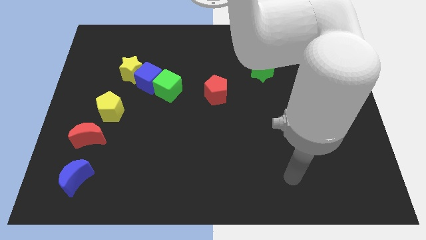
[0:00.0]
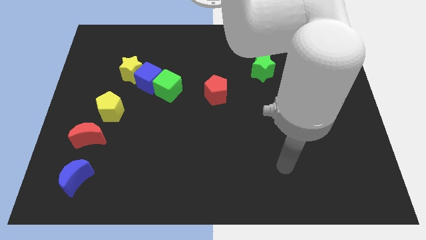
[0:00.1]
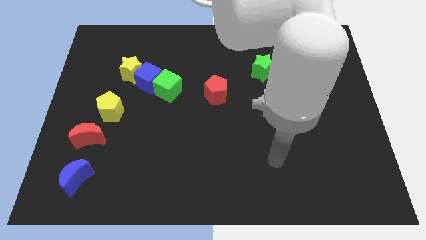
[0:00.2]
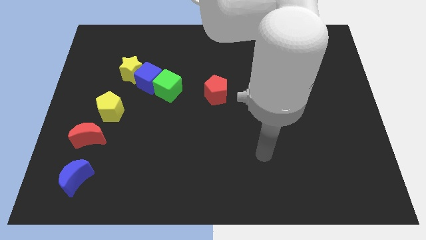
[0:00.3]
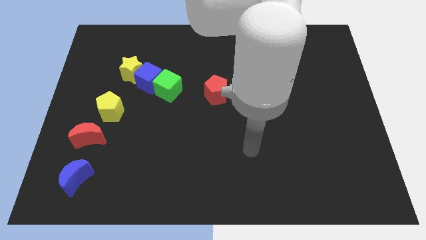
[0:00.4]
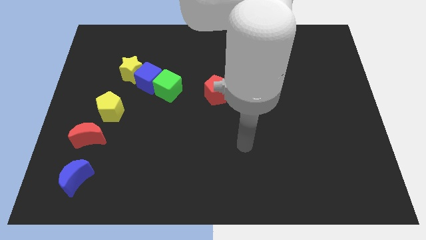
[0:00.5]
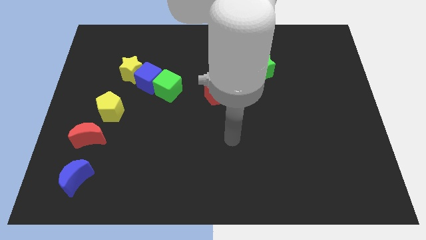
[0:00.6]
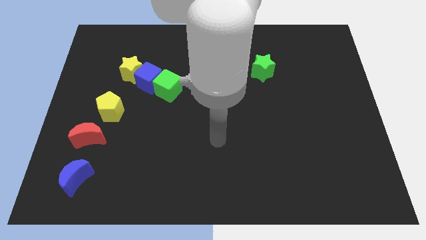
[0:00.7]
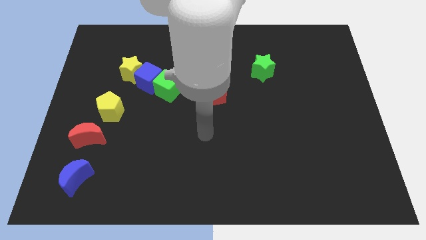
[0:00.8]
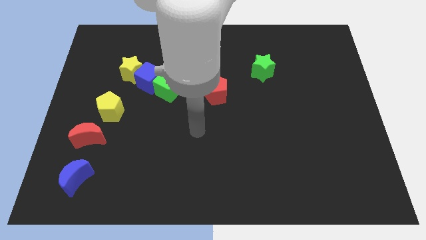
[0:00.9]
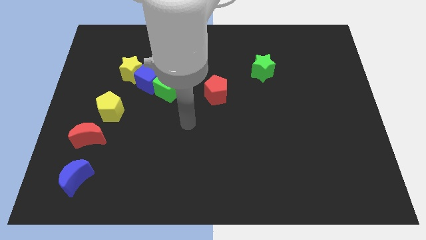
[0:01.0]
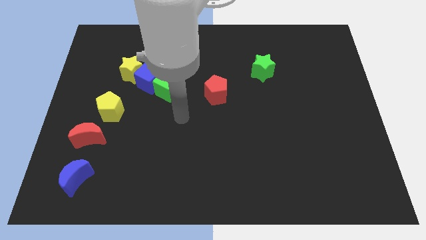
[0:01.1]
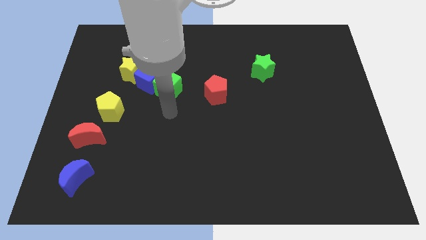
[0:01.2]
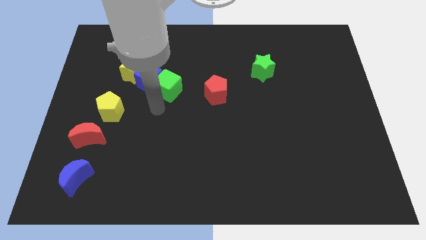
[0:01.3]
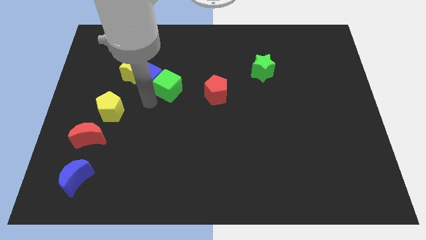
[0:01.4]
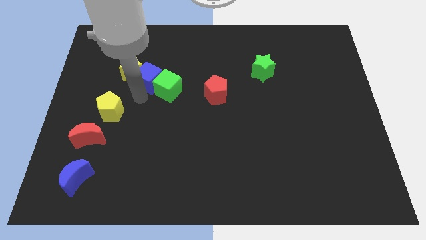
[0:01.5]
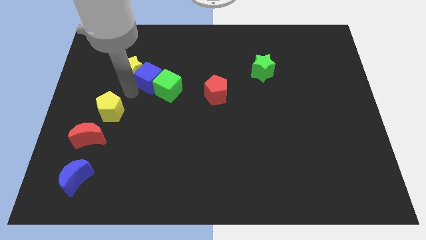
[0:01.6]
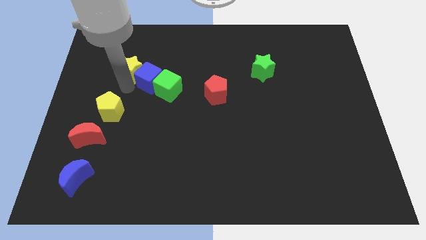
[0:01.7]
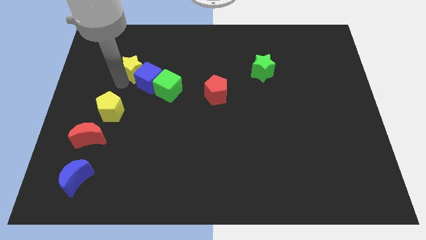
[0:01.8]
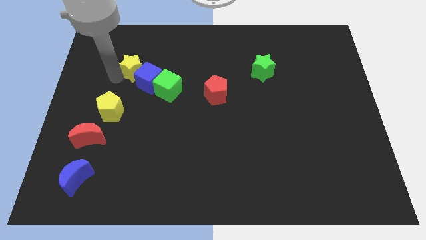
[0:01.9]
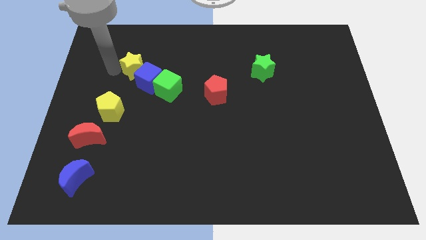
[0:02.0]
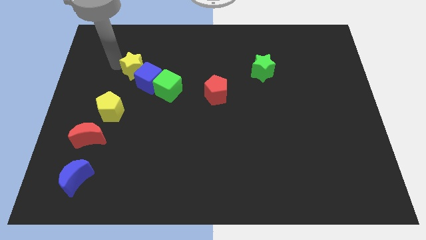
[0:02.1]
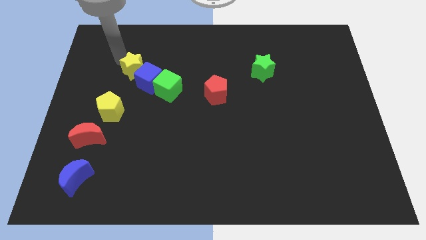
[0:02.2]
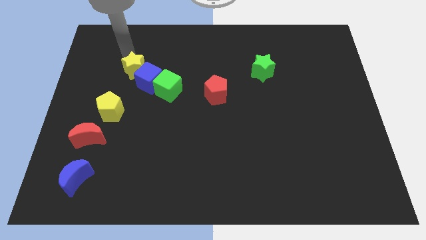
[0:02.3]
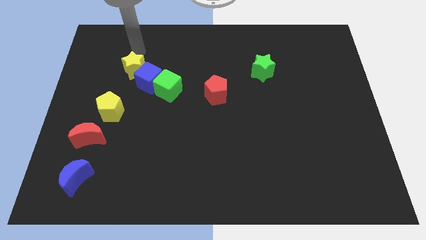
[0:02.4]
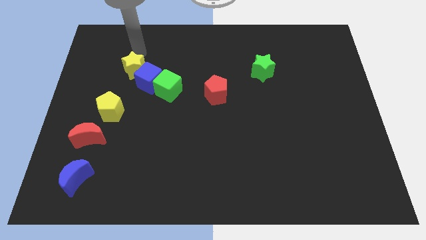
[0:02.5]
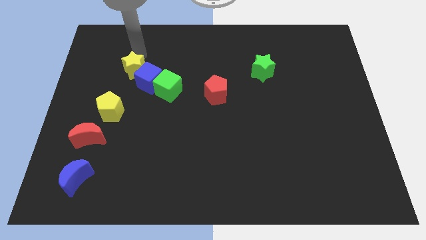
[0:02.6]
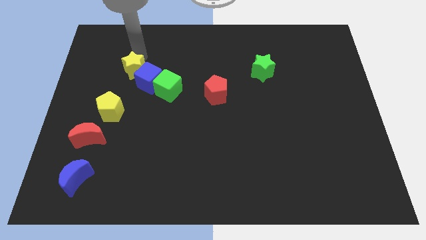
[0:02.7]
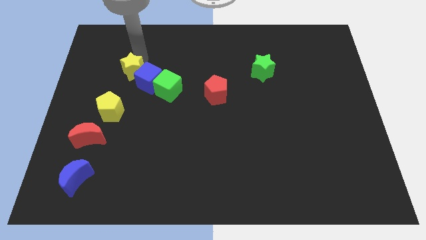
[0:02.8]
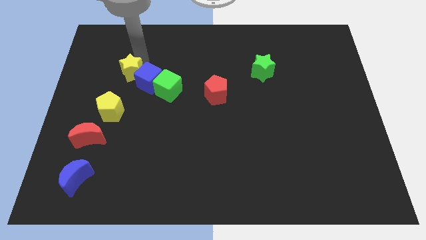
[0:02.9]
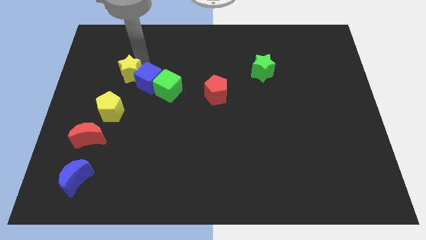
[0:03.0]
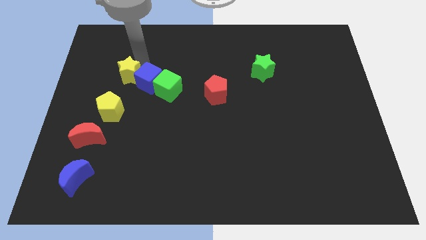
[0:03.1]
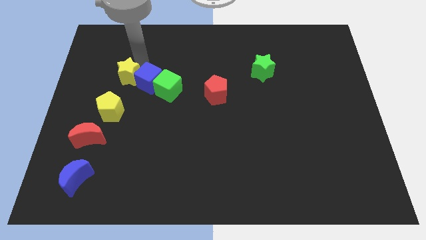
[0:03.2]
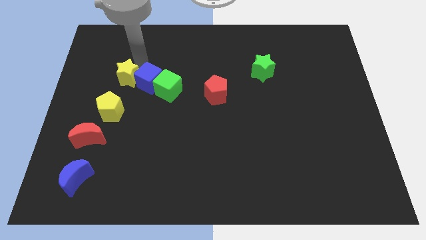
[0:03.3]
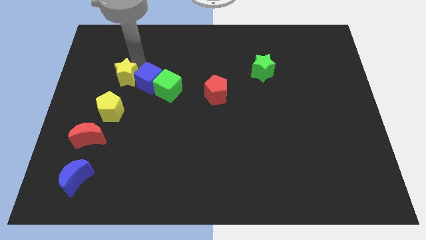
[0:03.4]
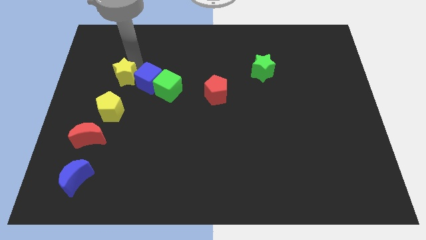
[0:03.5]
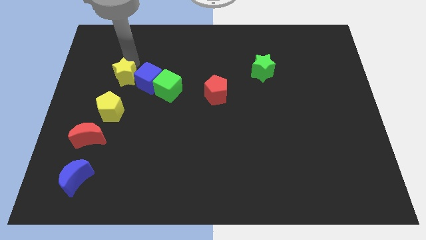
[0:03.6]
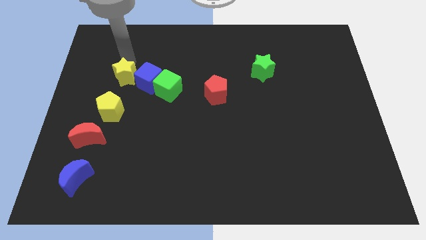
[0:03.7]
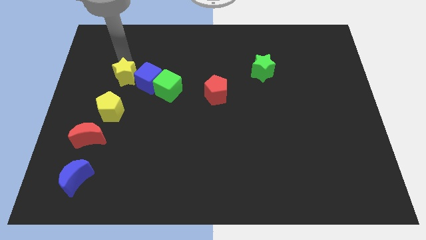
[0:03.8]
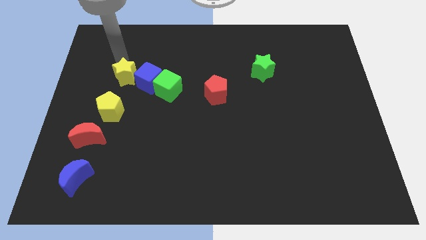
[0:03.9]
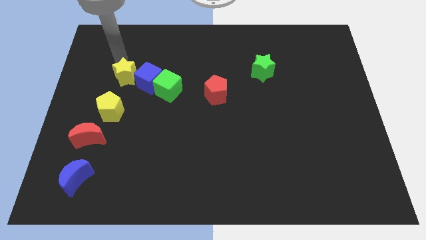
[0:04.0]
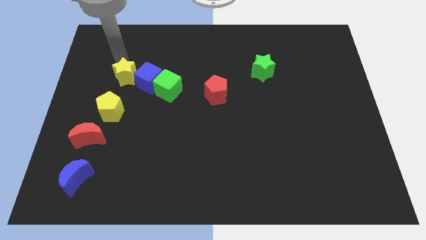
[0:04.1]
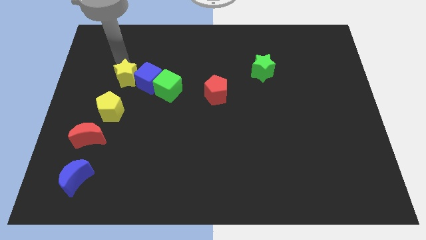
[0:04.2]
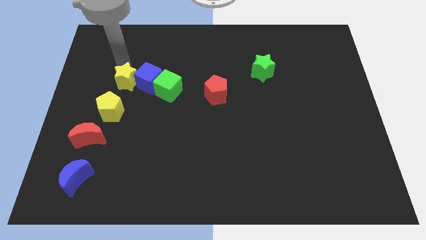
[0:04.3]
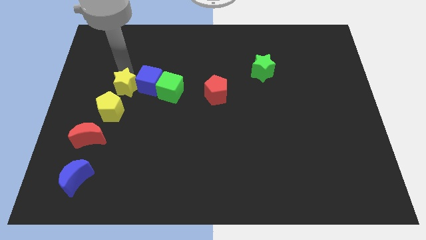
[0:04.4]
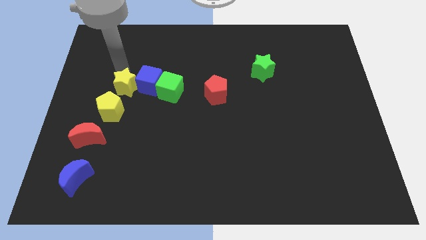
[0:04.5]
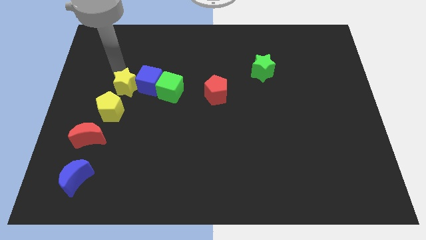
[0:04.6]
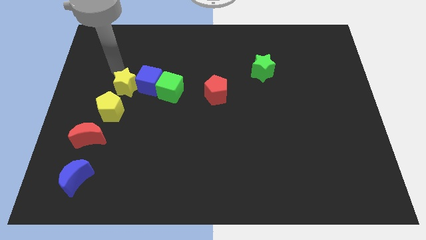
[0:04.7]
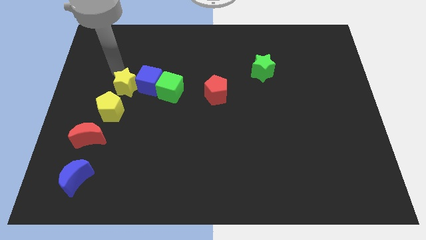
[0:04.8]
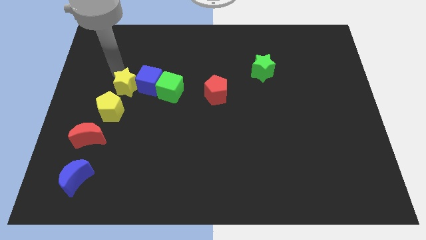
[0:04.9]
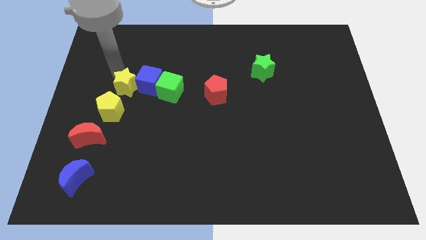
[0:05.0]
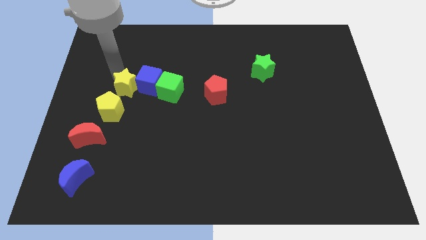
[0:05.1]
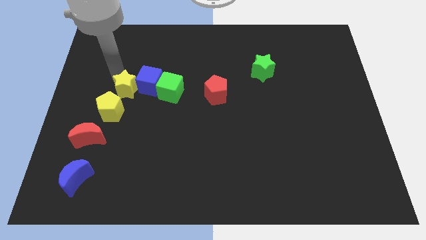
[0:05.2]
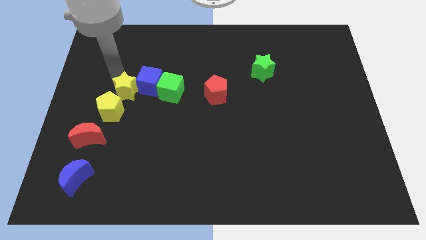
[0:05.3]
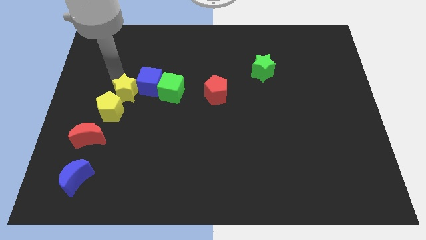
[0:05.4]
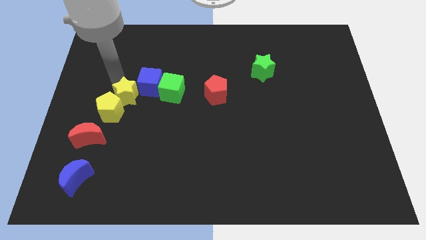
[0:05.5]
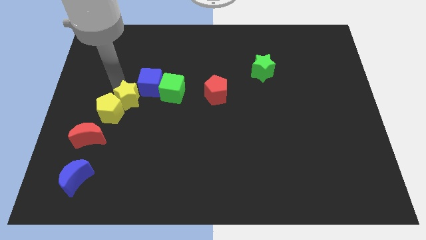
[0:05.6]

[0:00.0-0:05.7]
slide the yellow star below the blue cube

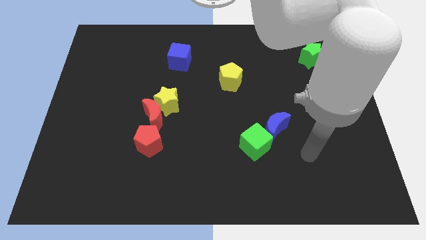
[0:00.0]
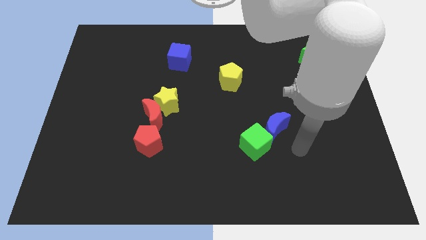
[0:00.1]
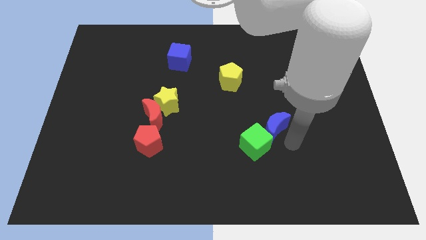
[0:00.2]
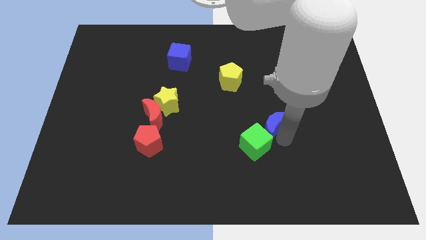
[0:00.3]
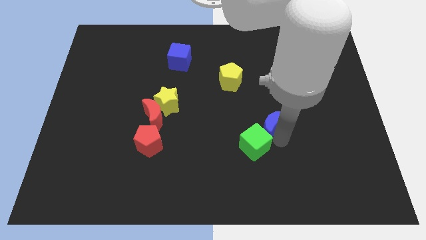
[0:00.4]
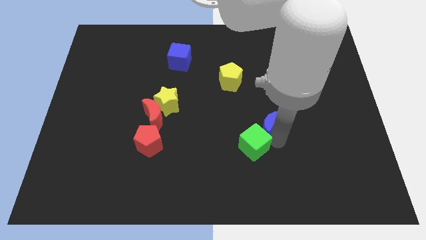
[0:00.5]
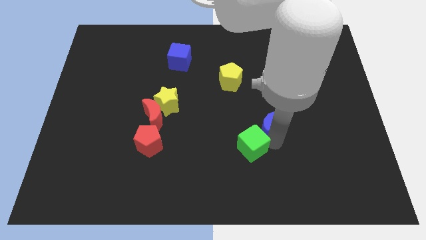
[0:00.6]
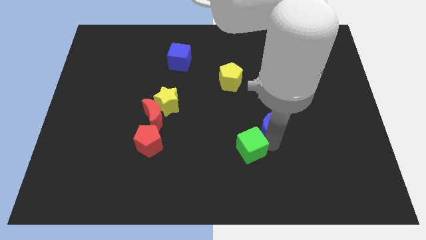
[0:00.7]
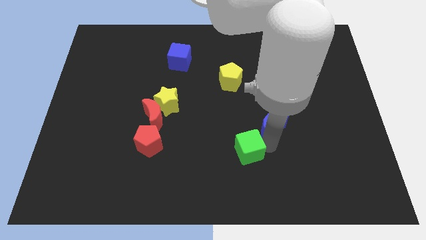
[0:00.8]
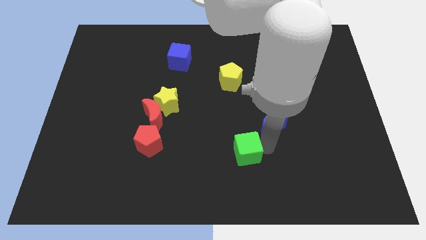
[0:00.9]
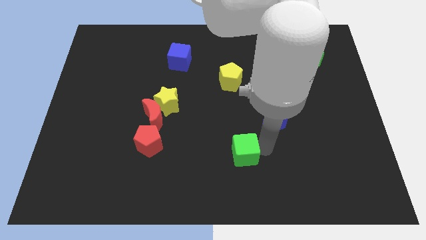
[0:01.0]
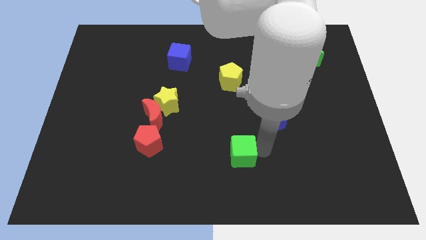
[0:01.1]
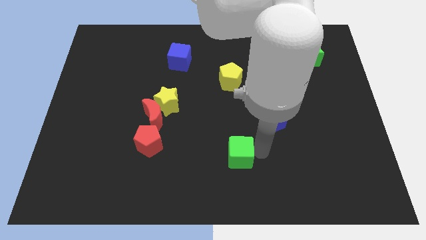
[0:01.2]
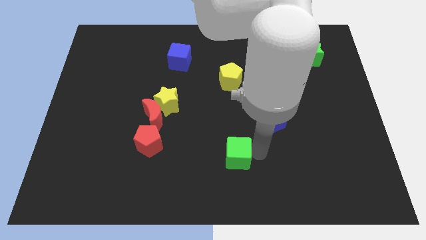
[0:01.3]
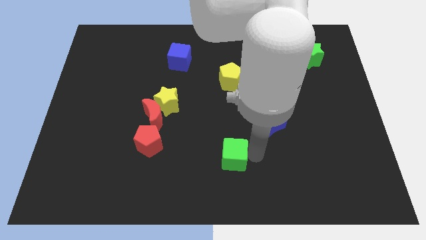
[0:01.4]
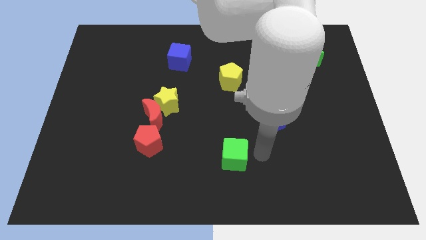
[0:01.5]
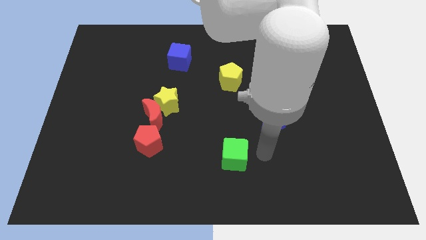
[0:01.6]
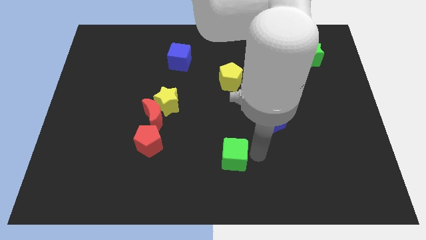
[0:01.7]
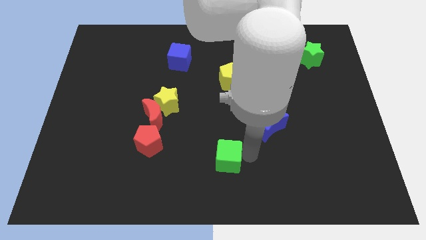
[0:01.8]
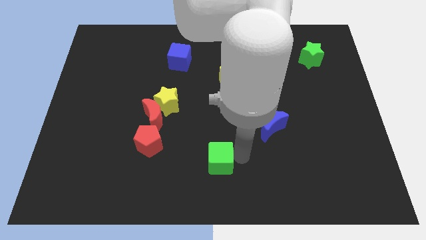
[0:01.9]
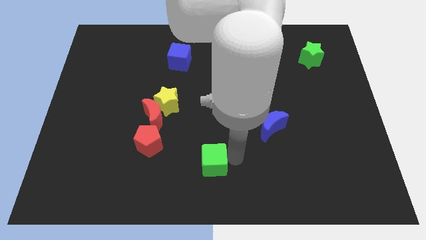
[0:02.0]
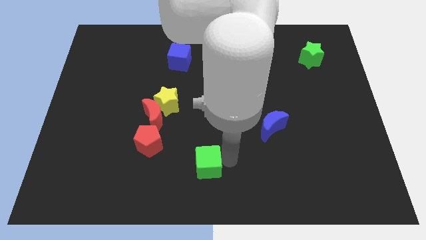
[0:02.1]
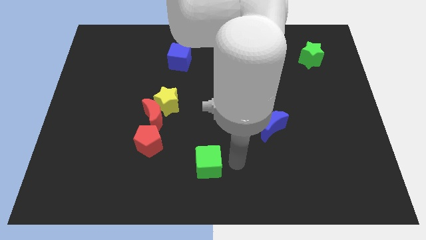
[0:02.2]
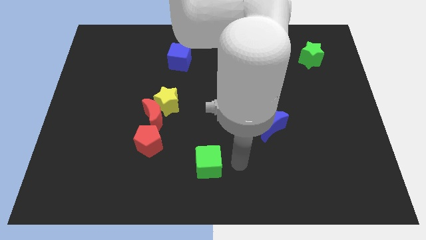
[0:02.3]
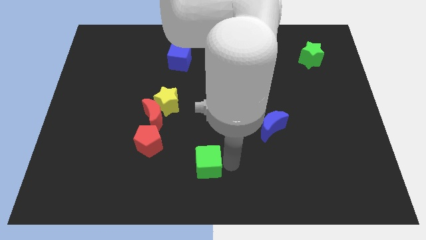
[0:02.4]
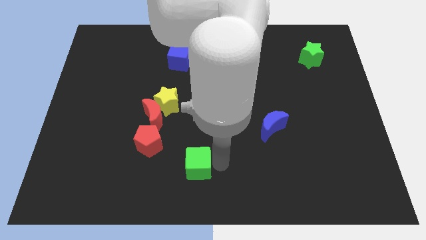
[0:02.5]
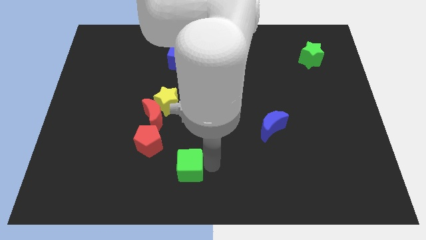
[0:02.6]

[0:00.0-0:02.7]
put the green cube diagonally down and to the right of the red pentagon
